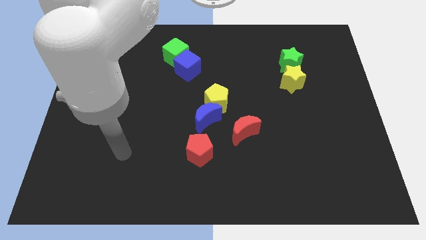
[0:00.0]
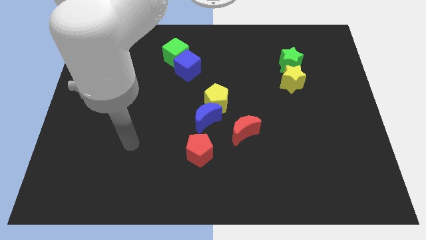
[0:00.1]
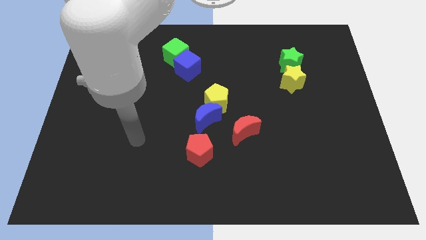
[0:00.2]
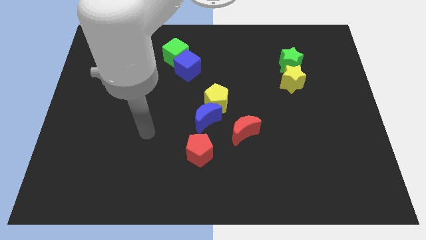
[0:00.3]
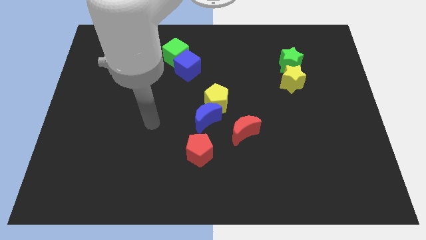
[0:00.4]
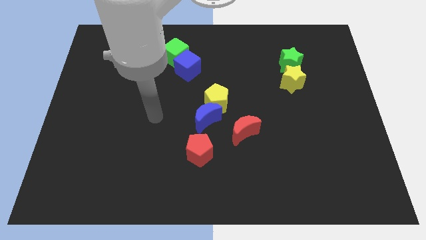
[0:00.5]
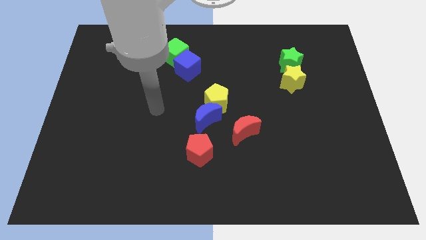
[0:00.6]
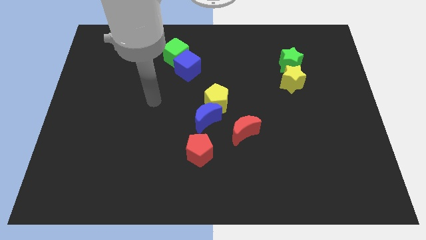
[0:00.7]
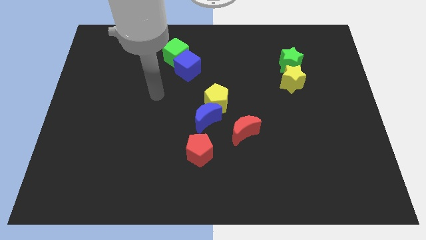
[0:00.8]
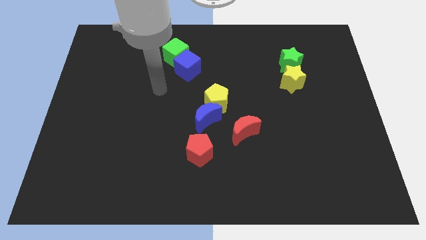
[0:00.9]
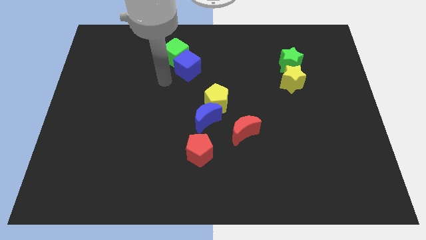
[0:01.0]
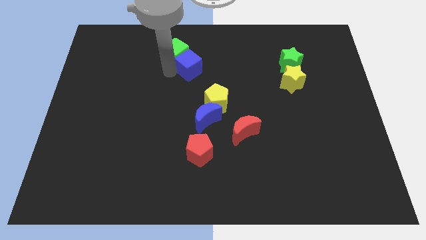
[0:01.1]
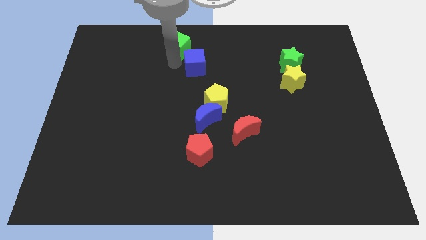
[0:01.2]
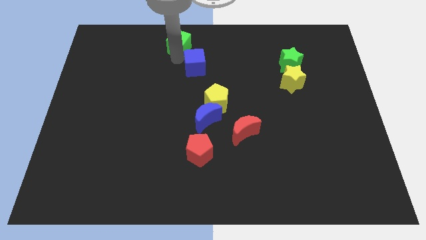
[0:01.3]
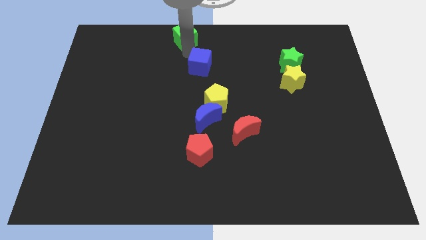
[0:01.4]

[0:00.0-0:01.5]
move the blue cube away from the green cube

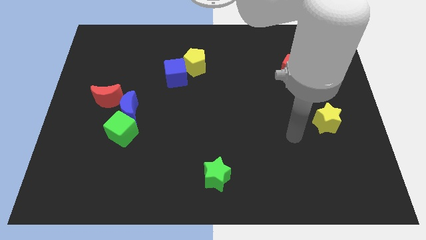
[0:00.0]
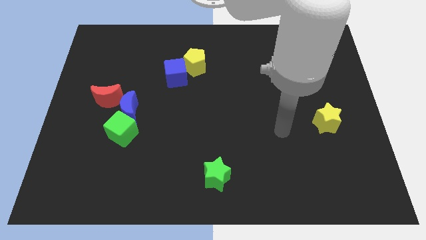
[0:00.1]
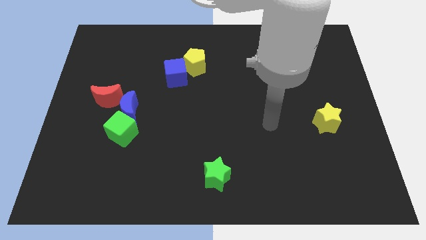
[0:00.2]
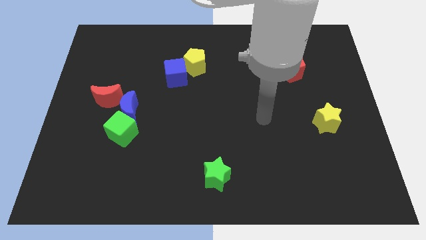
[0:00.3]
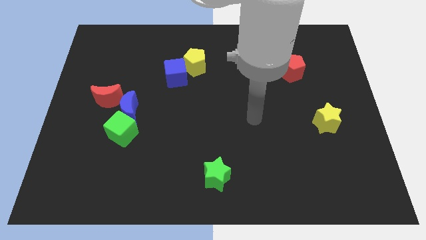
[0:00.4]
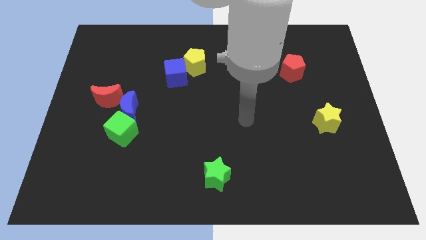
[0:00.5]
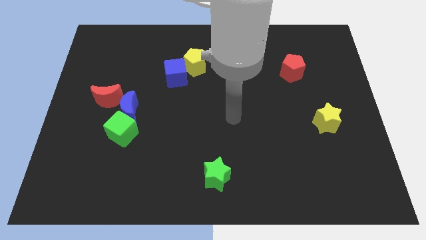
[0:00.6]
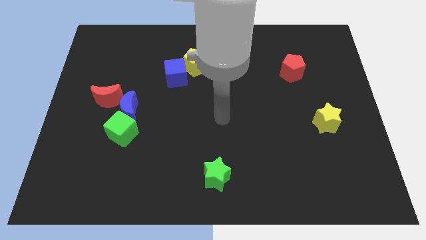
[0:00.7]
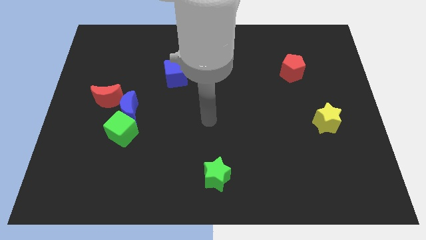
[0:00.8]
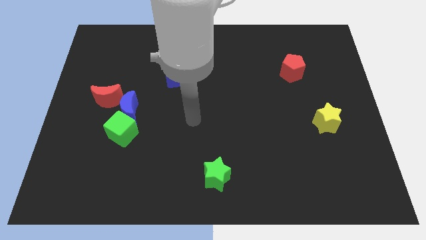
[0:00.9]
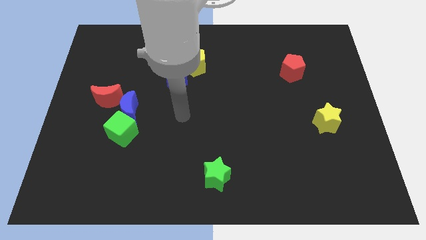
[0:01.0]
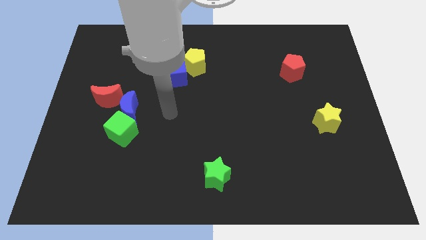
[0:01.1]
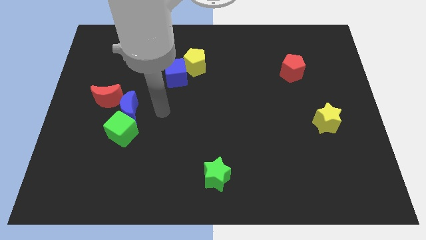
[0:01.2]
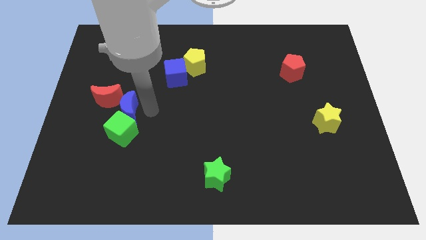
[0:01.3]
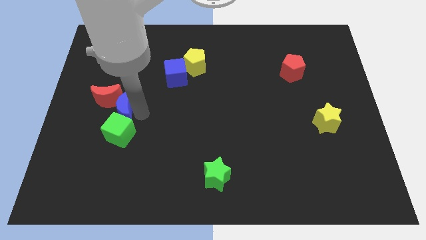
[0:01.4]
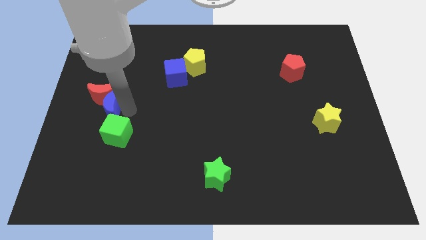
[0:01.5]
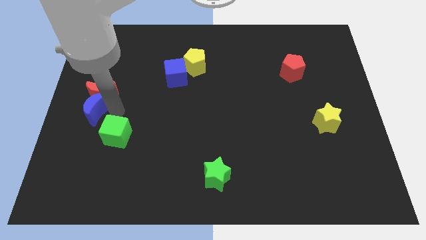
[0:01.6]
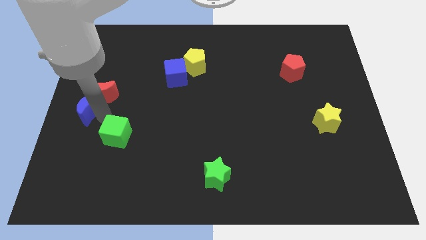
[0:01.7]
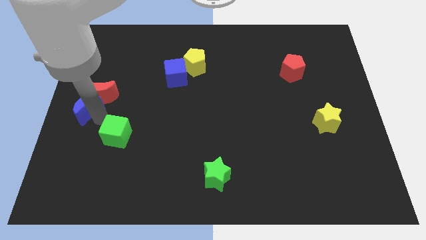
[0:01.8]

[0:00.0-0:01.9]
move the green cube away from the blue moon

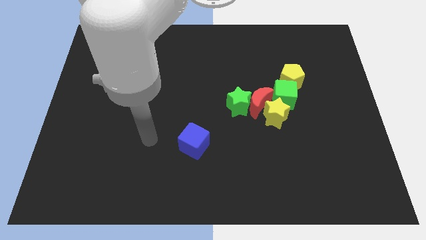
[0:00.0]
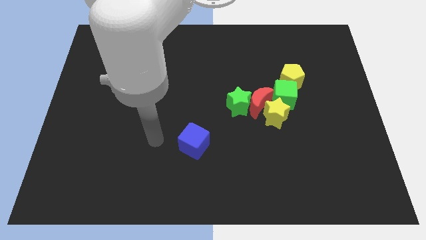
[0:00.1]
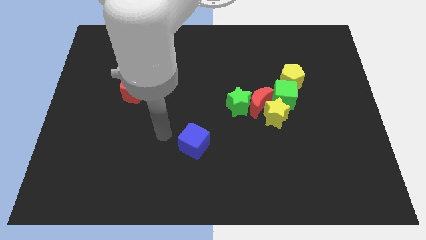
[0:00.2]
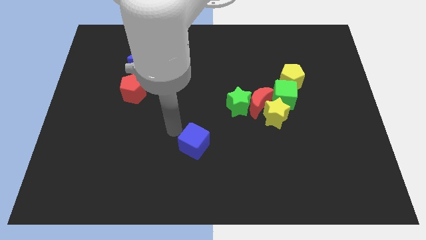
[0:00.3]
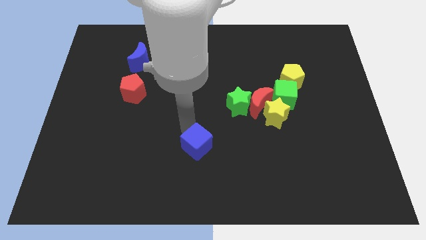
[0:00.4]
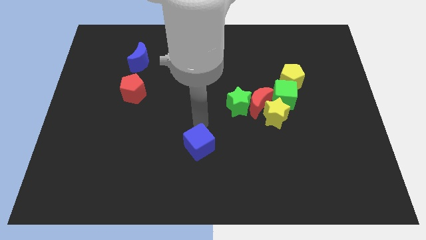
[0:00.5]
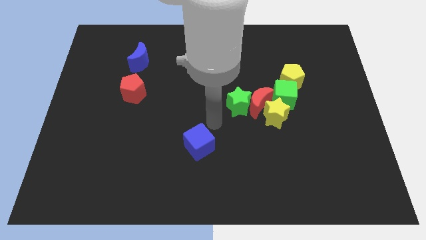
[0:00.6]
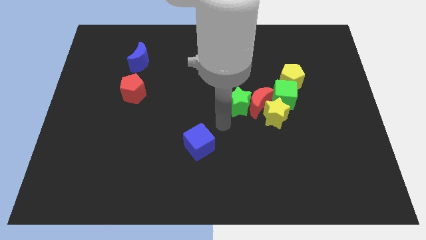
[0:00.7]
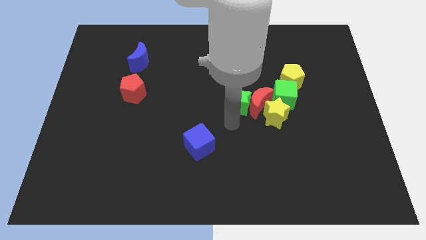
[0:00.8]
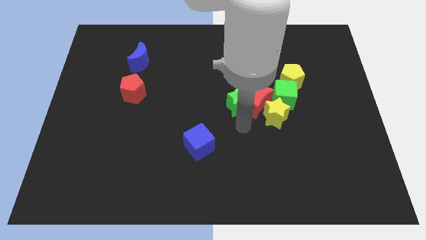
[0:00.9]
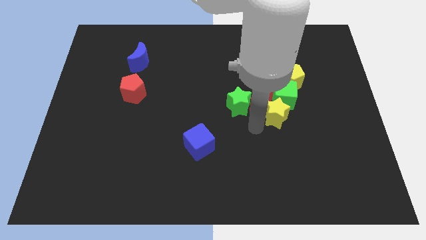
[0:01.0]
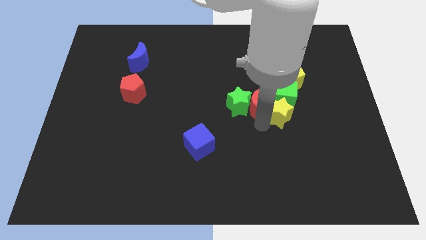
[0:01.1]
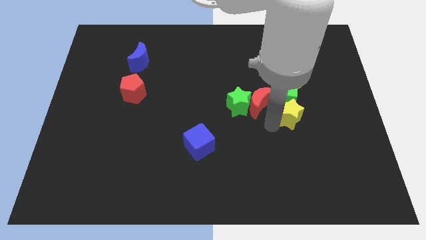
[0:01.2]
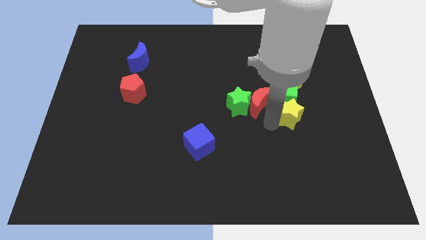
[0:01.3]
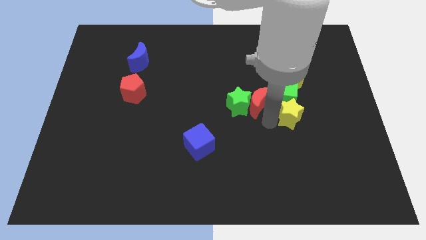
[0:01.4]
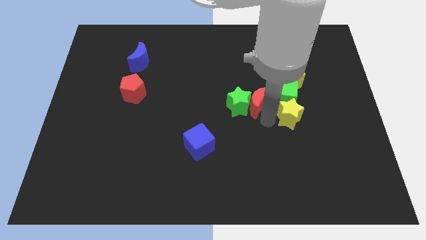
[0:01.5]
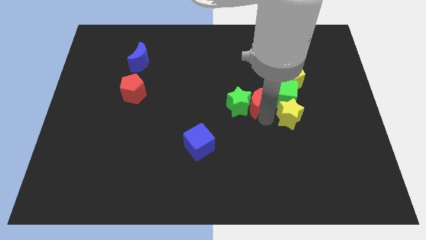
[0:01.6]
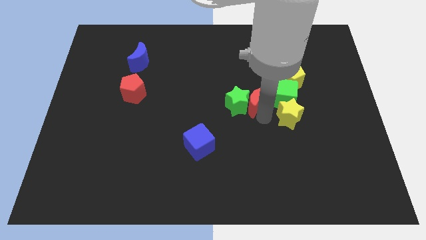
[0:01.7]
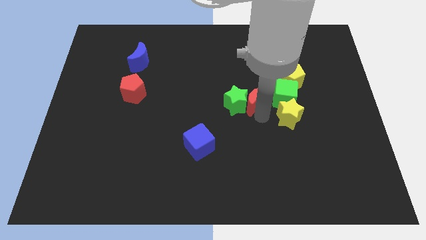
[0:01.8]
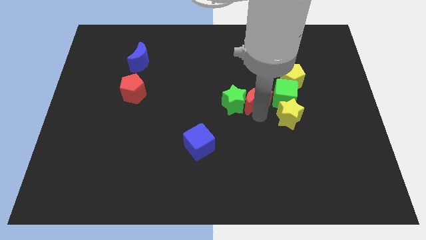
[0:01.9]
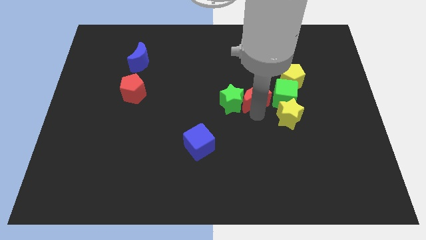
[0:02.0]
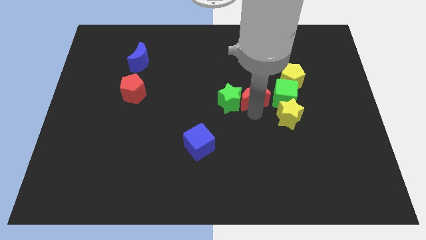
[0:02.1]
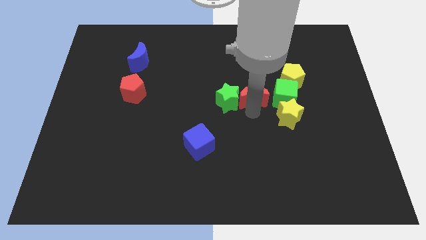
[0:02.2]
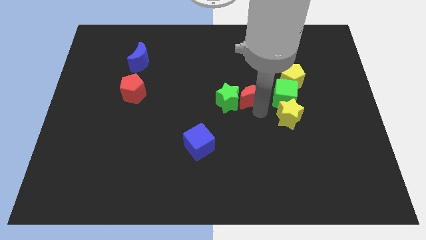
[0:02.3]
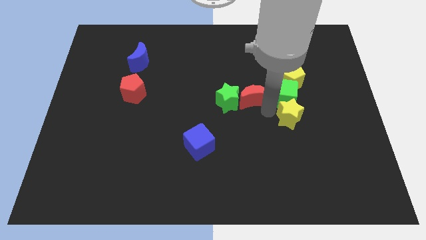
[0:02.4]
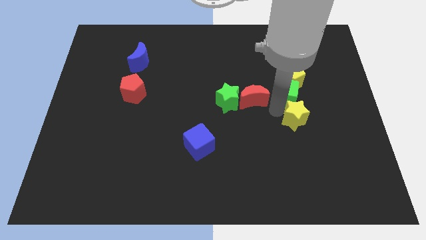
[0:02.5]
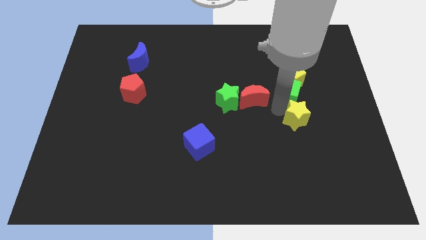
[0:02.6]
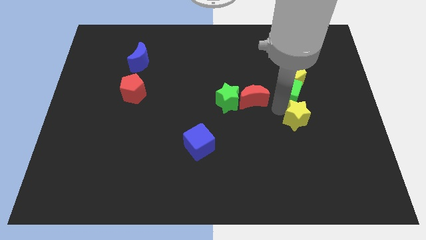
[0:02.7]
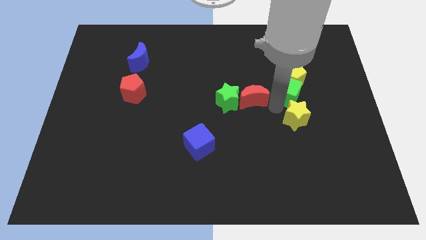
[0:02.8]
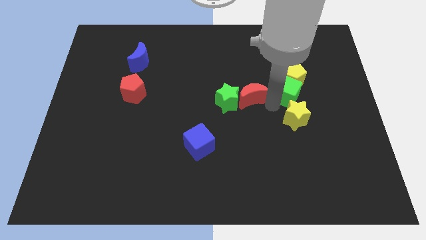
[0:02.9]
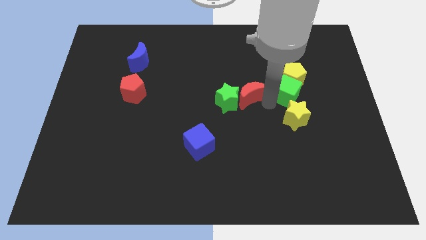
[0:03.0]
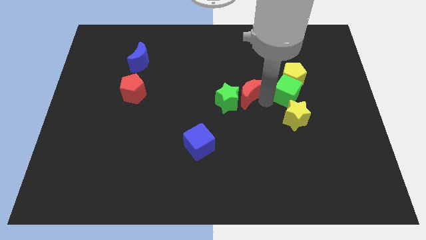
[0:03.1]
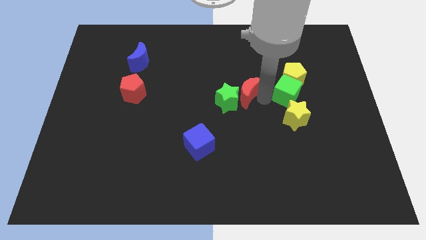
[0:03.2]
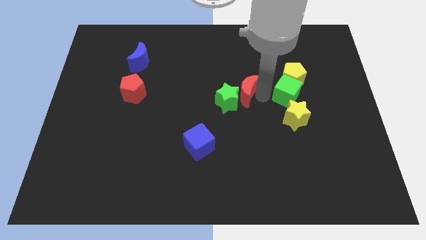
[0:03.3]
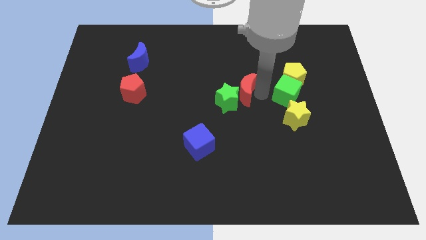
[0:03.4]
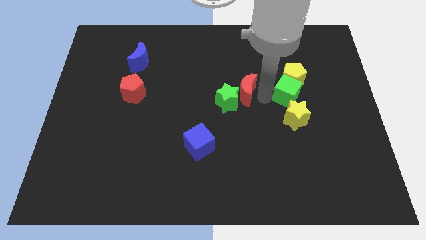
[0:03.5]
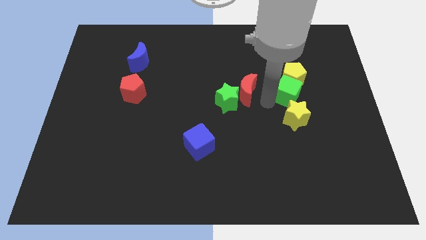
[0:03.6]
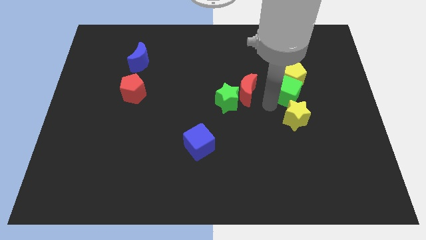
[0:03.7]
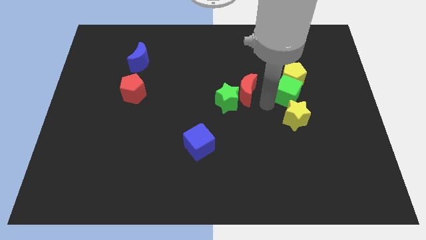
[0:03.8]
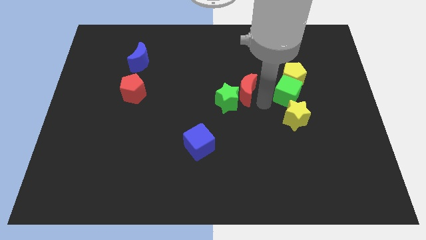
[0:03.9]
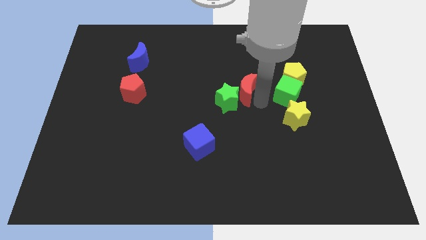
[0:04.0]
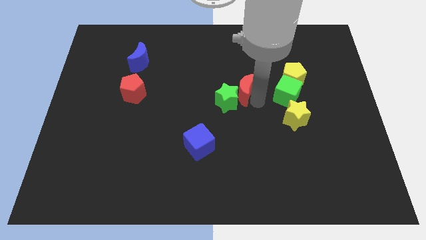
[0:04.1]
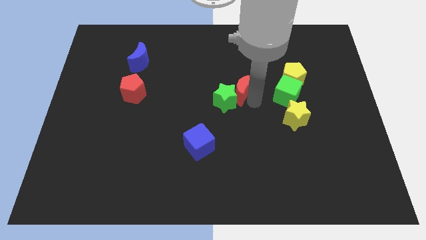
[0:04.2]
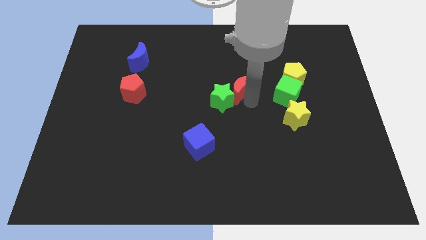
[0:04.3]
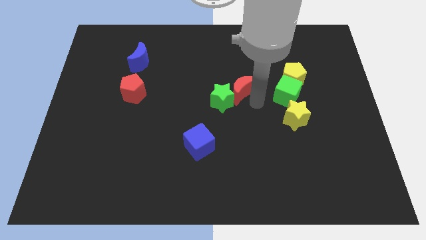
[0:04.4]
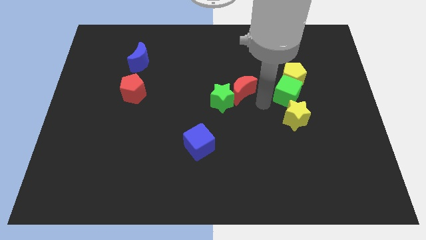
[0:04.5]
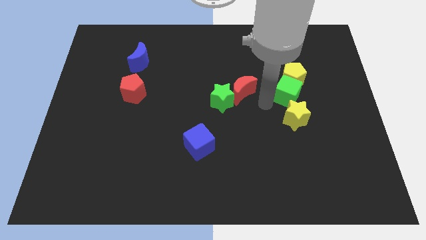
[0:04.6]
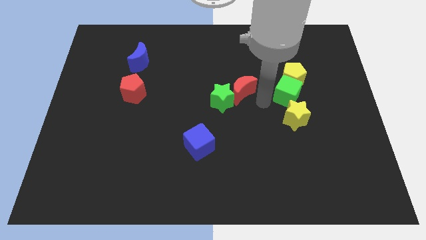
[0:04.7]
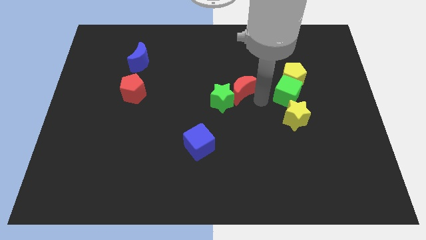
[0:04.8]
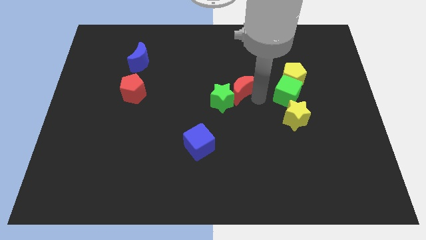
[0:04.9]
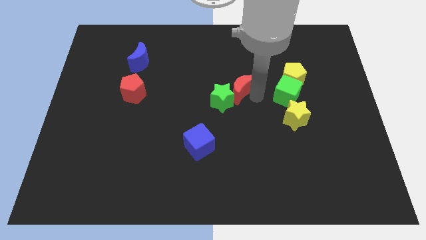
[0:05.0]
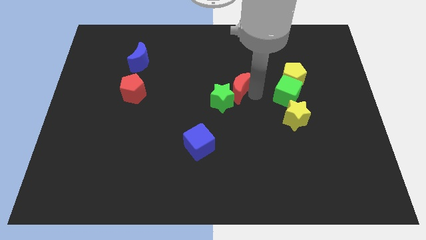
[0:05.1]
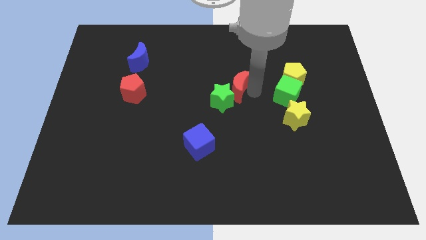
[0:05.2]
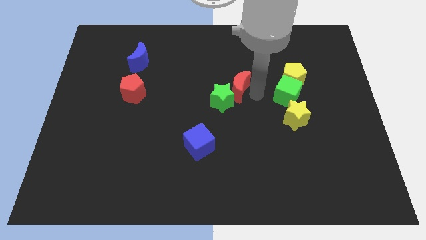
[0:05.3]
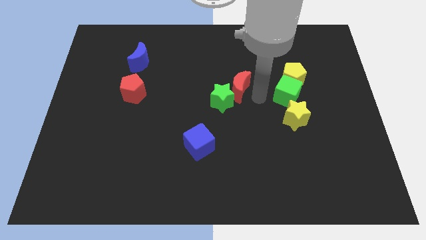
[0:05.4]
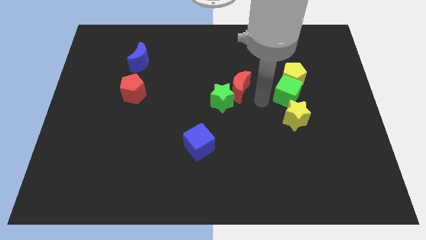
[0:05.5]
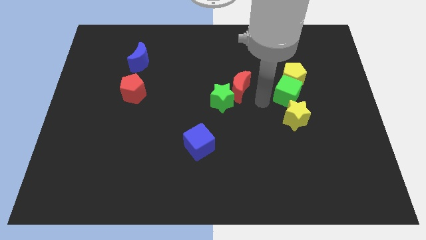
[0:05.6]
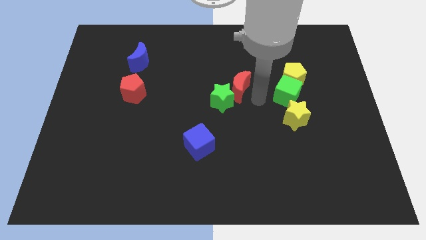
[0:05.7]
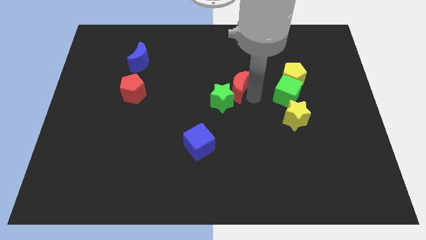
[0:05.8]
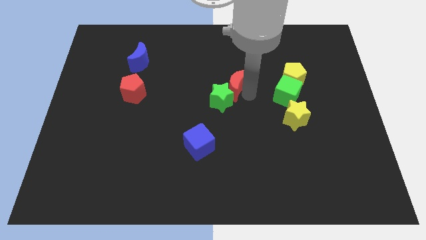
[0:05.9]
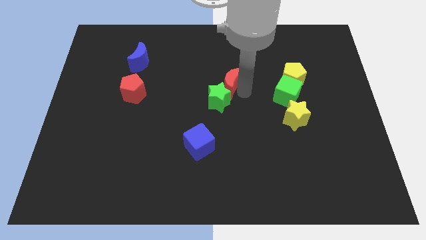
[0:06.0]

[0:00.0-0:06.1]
move the red moon away from the group
